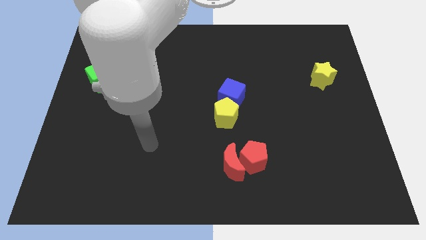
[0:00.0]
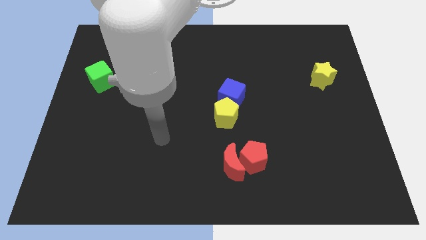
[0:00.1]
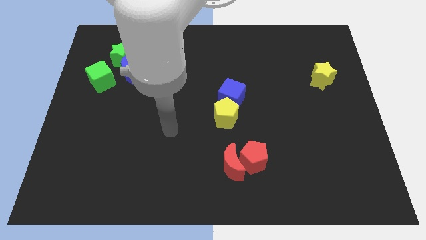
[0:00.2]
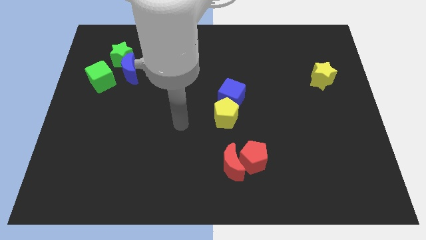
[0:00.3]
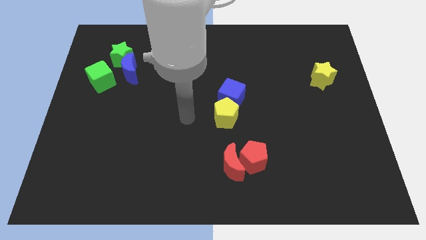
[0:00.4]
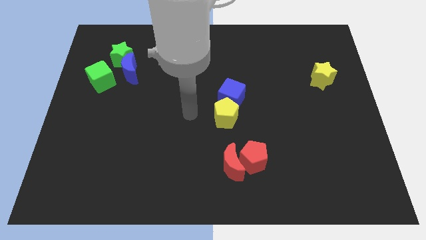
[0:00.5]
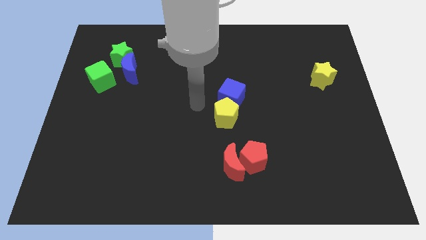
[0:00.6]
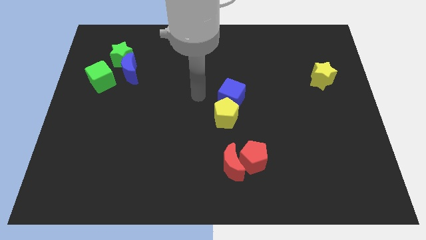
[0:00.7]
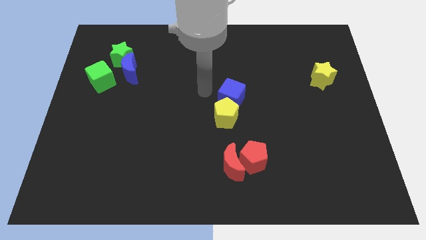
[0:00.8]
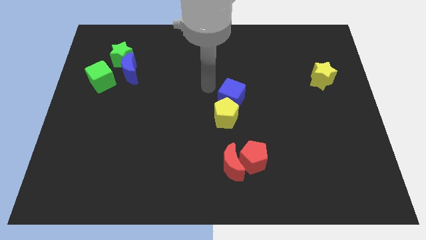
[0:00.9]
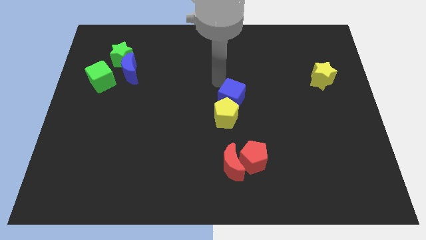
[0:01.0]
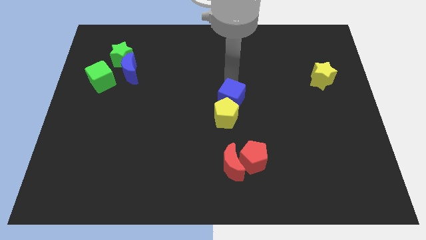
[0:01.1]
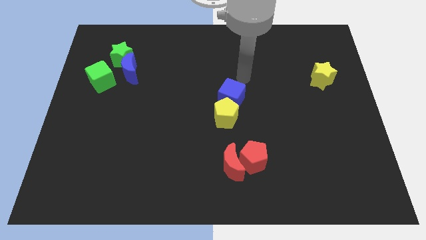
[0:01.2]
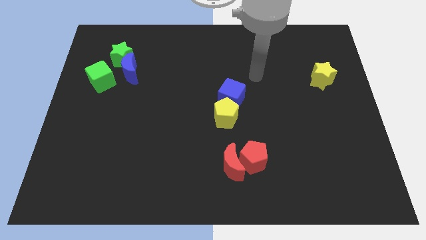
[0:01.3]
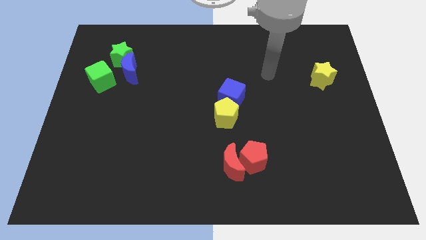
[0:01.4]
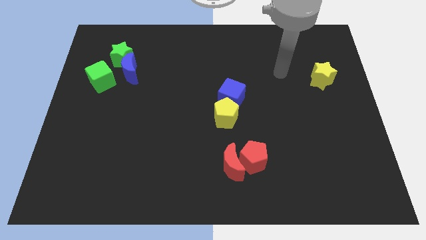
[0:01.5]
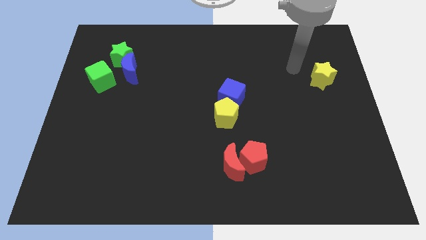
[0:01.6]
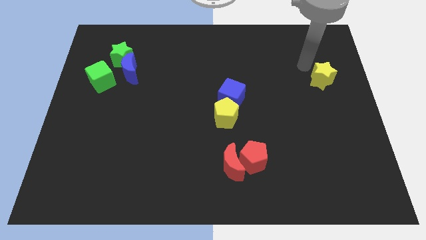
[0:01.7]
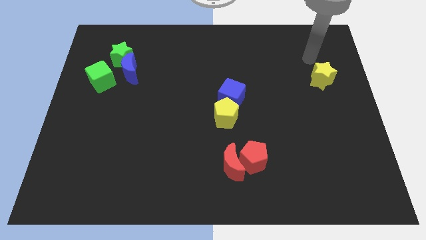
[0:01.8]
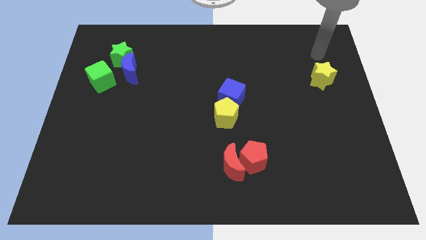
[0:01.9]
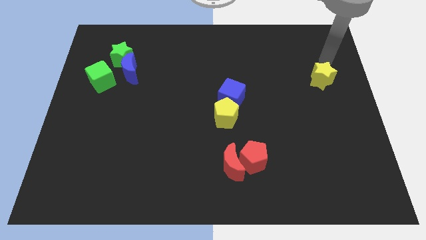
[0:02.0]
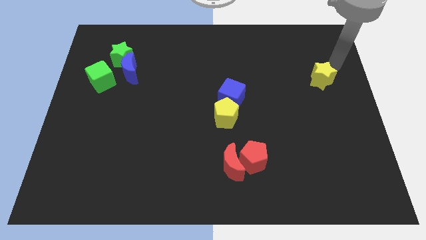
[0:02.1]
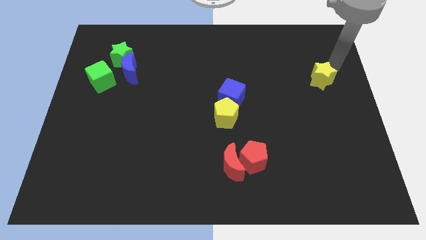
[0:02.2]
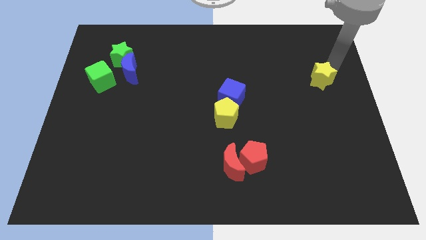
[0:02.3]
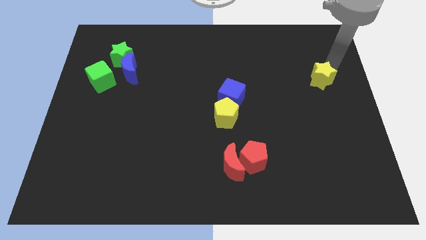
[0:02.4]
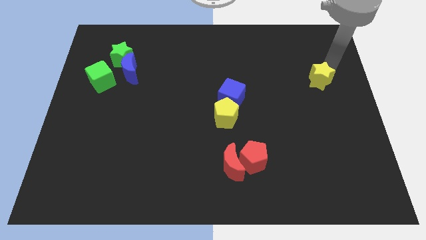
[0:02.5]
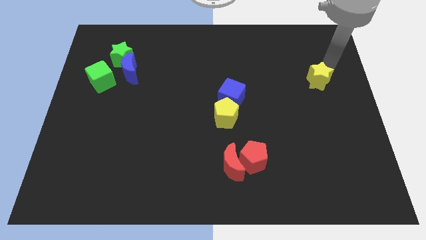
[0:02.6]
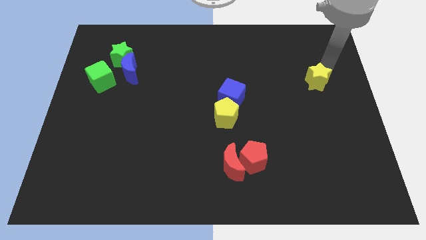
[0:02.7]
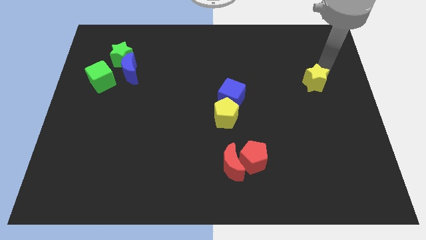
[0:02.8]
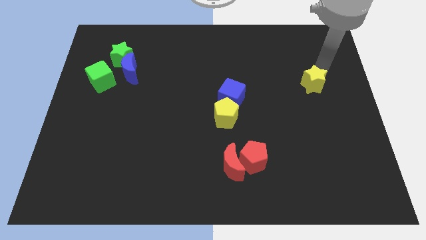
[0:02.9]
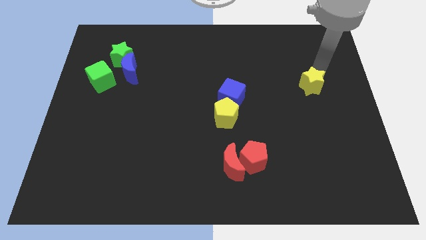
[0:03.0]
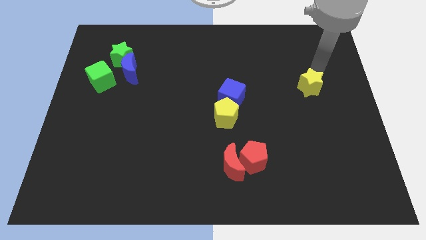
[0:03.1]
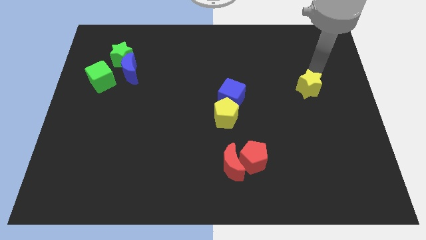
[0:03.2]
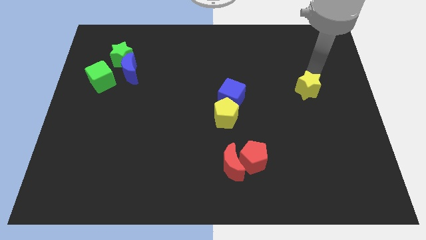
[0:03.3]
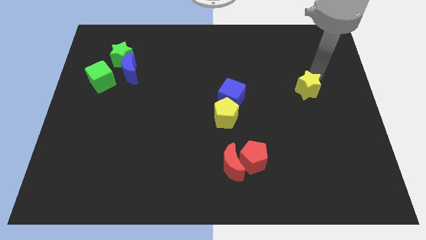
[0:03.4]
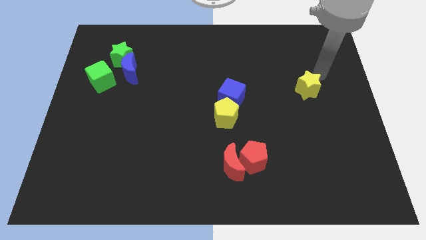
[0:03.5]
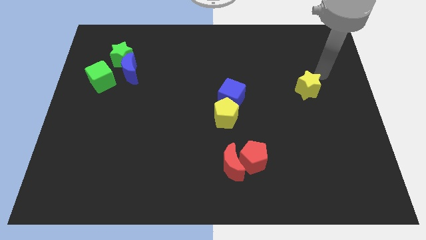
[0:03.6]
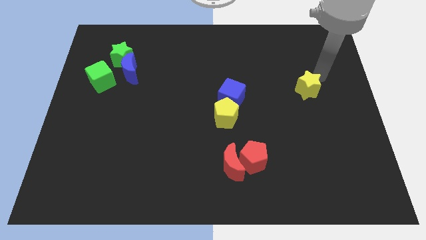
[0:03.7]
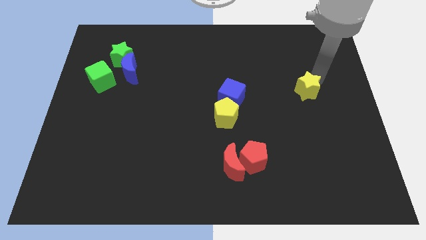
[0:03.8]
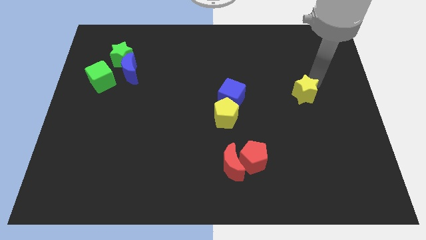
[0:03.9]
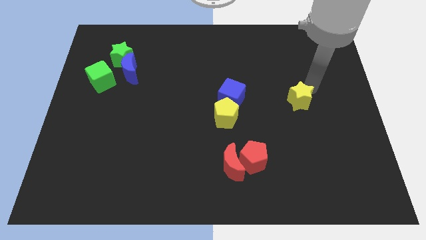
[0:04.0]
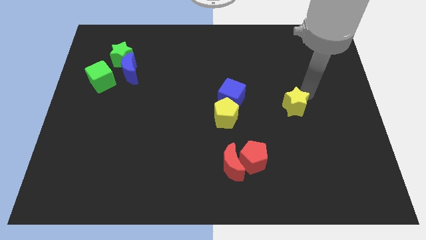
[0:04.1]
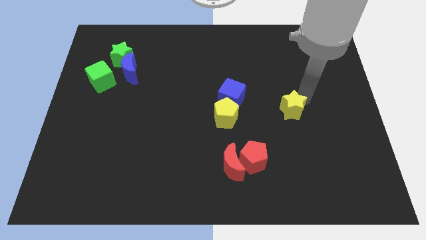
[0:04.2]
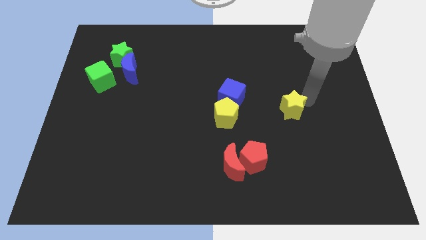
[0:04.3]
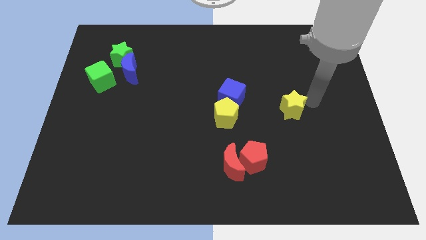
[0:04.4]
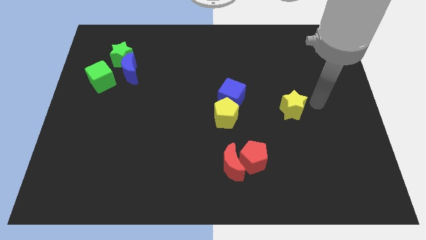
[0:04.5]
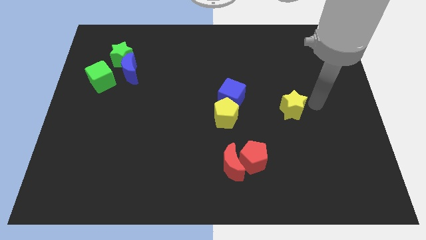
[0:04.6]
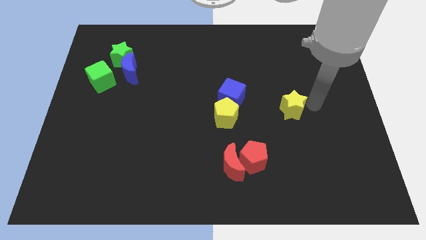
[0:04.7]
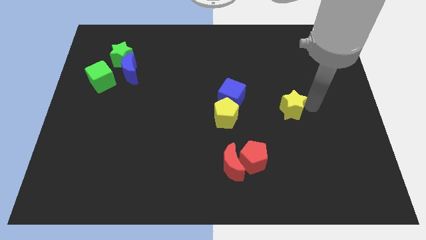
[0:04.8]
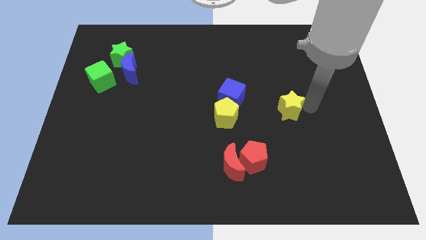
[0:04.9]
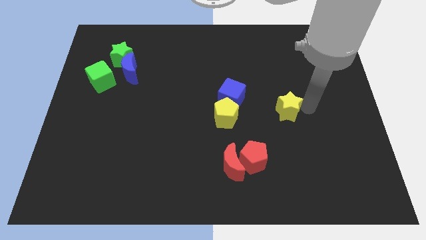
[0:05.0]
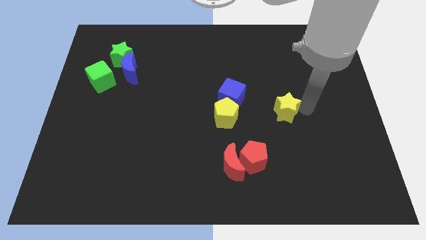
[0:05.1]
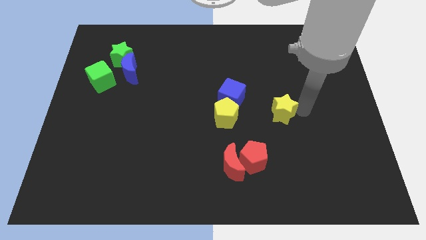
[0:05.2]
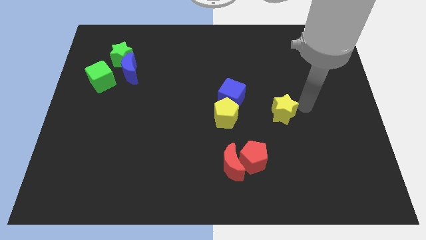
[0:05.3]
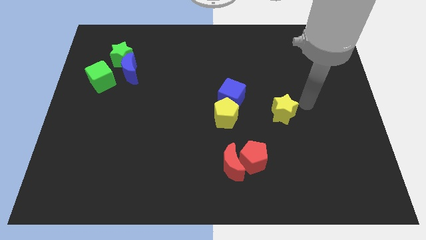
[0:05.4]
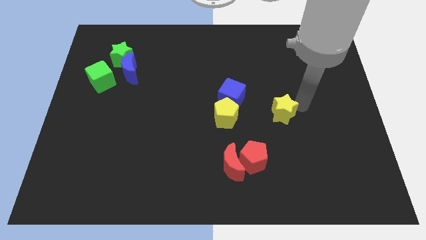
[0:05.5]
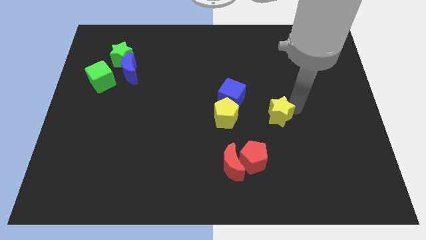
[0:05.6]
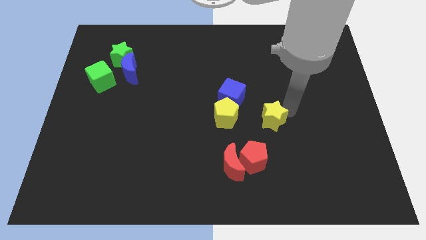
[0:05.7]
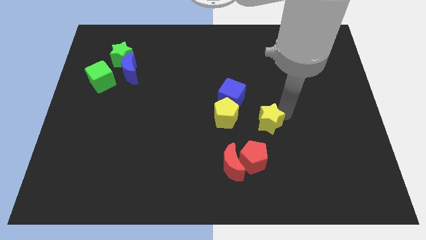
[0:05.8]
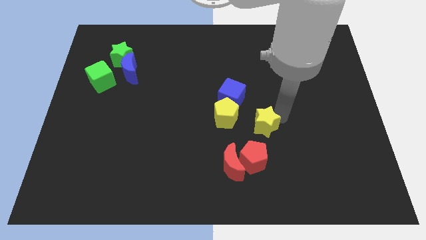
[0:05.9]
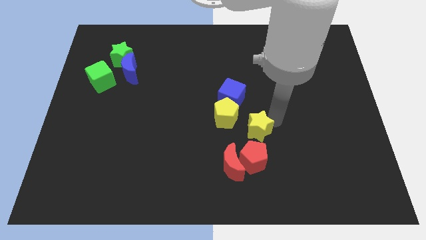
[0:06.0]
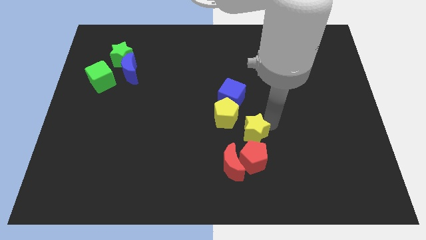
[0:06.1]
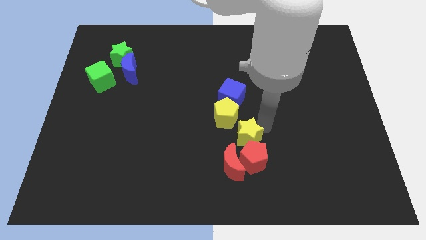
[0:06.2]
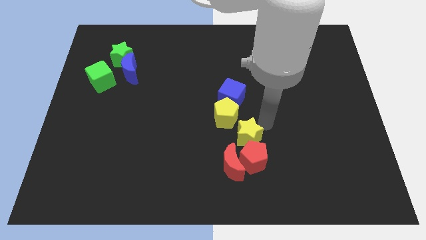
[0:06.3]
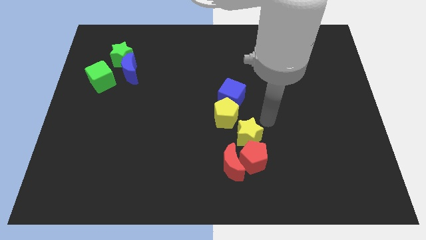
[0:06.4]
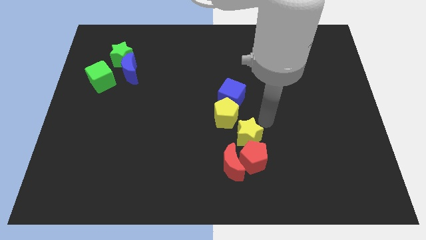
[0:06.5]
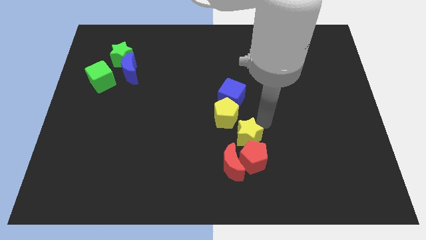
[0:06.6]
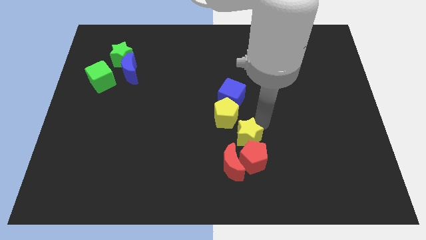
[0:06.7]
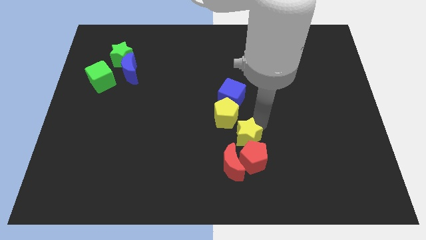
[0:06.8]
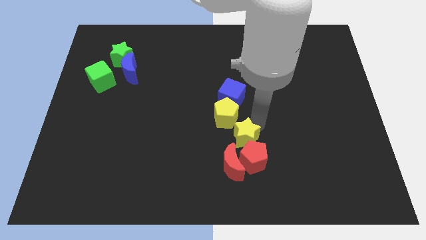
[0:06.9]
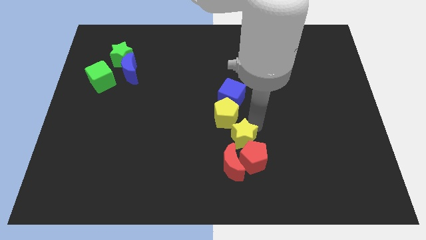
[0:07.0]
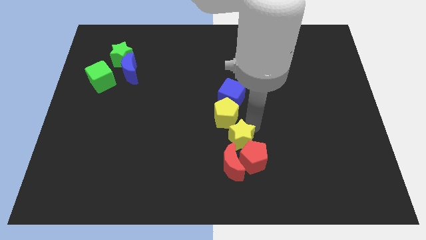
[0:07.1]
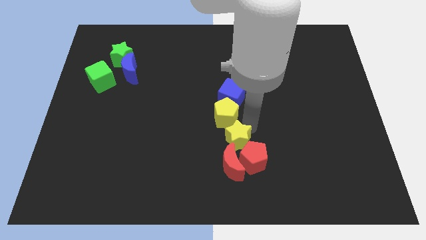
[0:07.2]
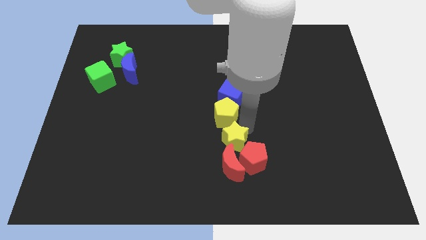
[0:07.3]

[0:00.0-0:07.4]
put the yellow star close to the red moon

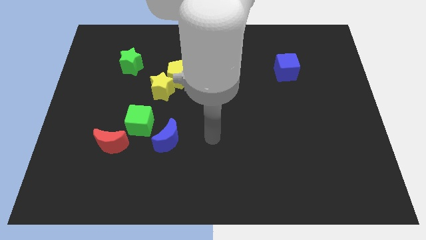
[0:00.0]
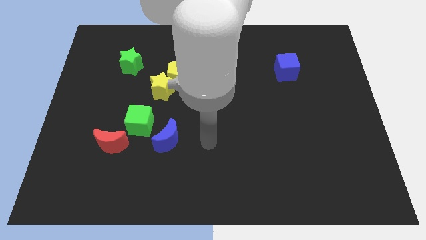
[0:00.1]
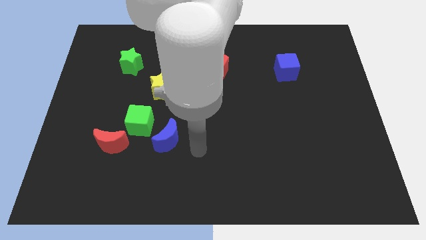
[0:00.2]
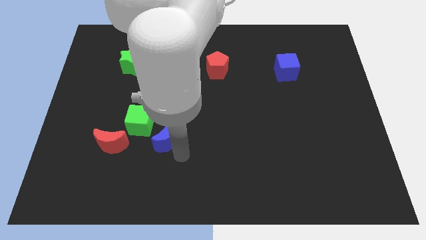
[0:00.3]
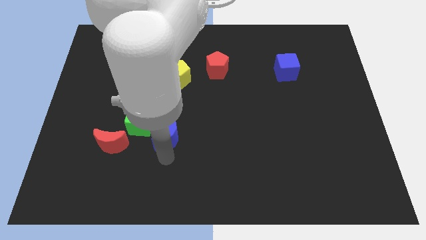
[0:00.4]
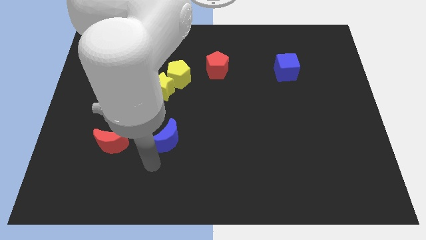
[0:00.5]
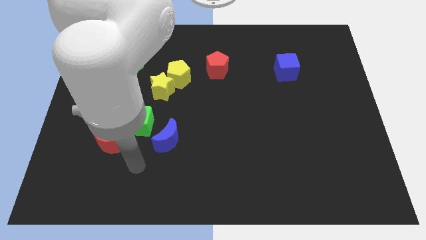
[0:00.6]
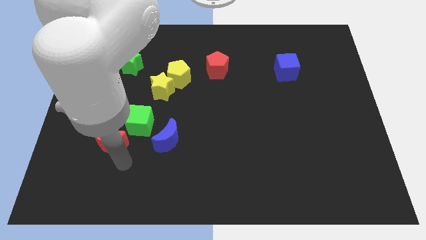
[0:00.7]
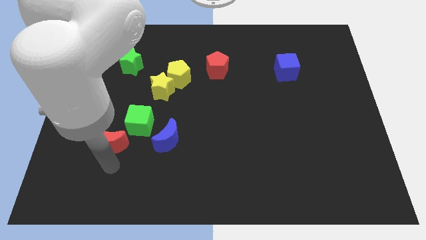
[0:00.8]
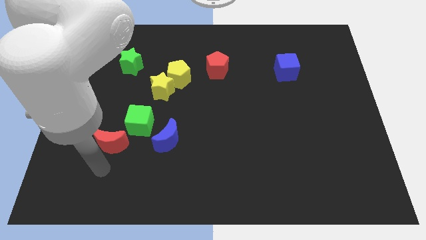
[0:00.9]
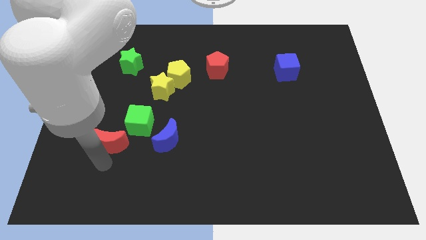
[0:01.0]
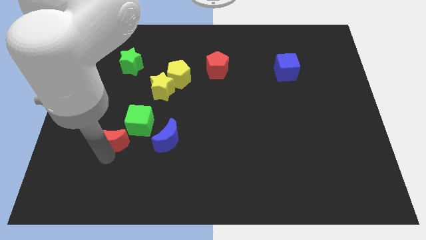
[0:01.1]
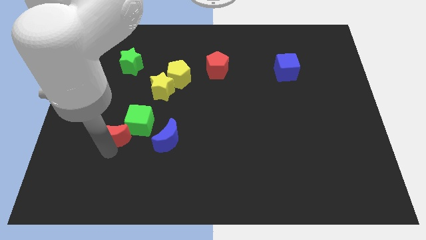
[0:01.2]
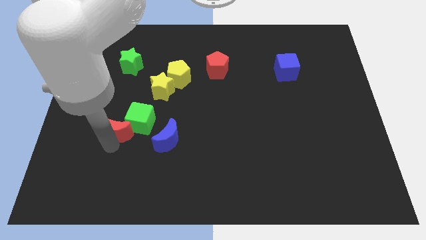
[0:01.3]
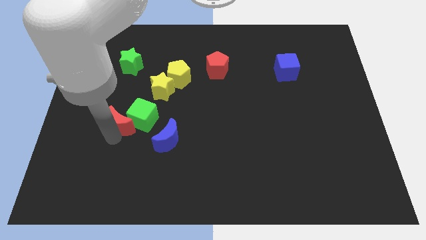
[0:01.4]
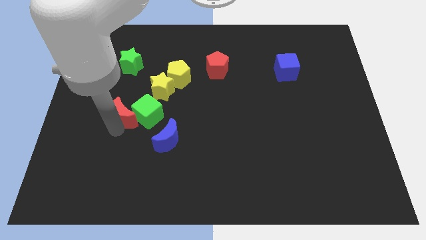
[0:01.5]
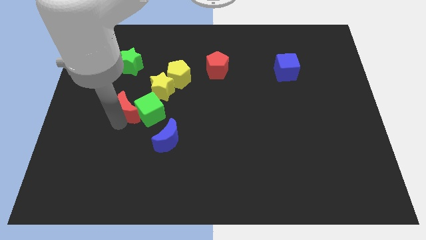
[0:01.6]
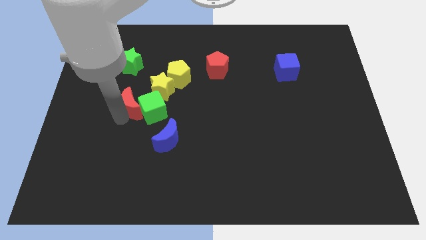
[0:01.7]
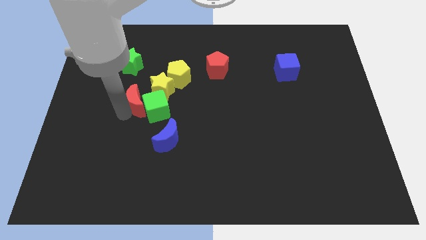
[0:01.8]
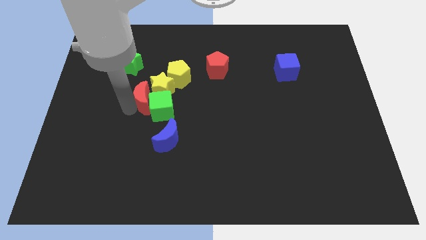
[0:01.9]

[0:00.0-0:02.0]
put the red moon to the yellow star
